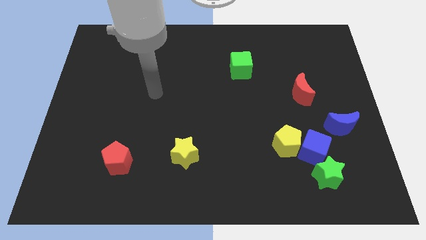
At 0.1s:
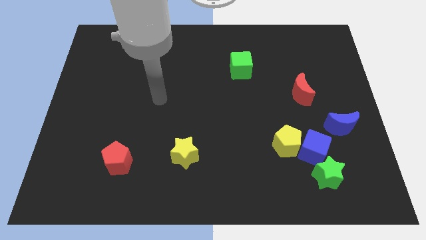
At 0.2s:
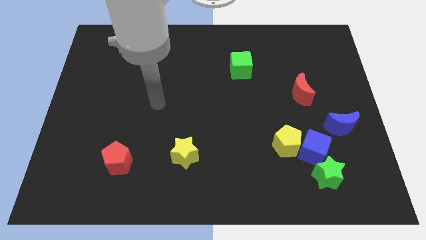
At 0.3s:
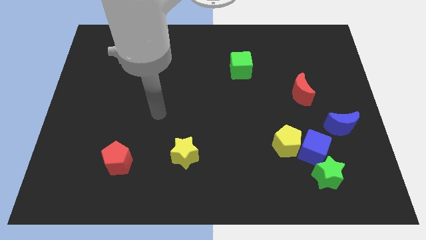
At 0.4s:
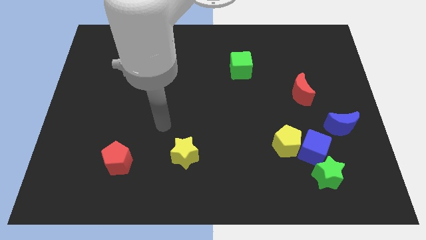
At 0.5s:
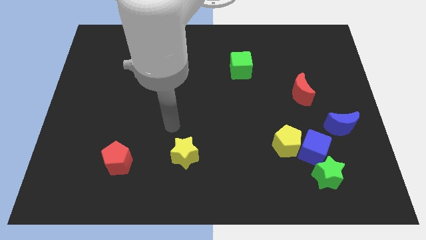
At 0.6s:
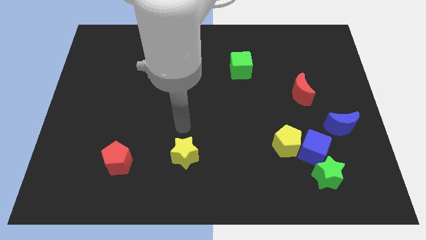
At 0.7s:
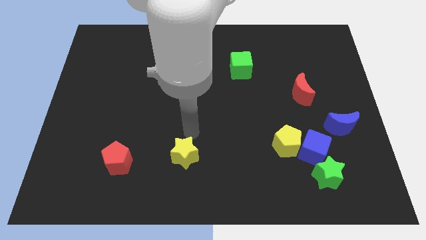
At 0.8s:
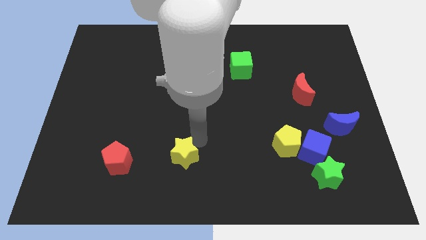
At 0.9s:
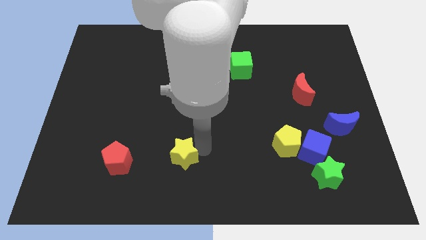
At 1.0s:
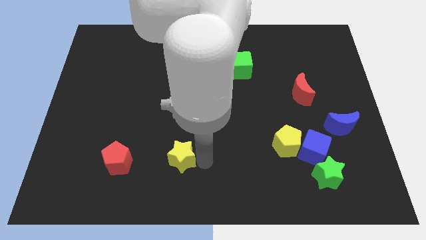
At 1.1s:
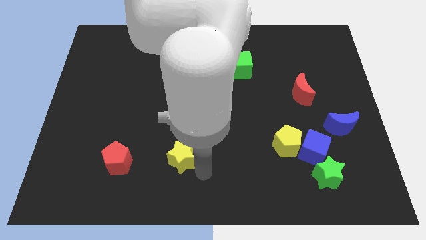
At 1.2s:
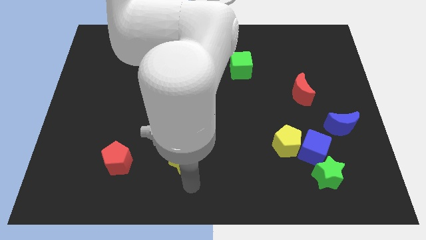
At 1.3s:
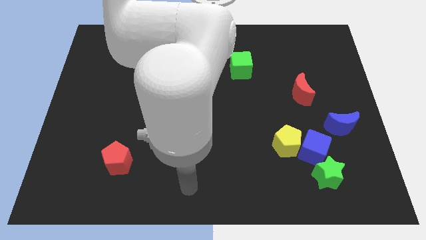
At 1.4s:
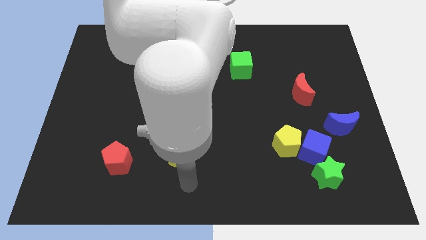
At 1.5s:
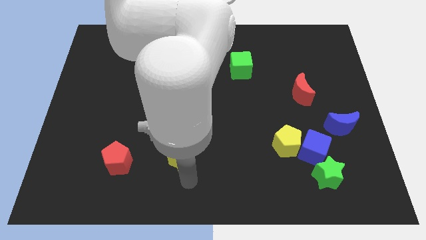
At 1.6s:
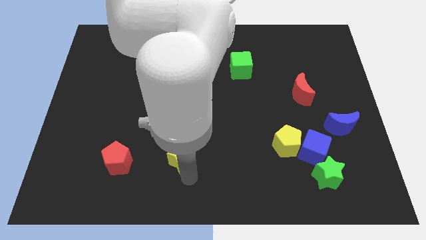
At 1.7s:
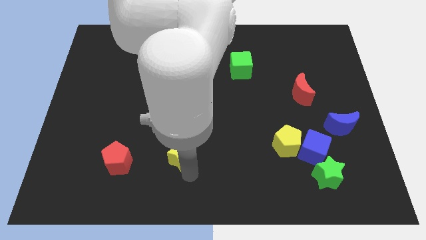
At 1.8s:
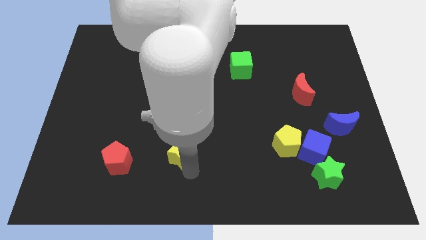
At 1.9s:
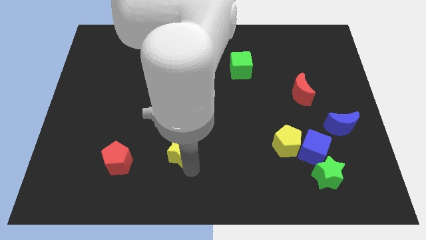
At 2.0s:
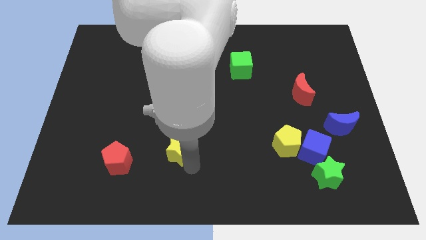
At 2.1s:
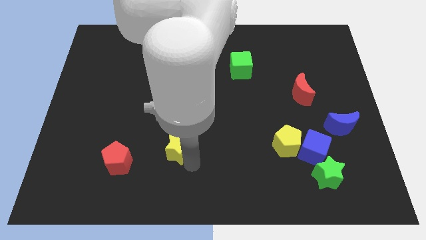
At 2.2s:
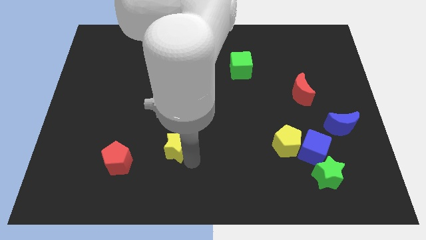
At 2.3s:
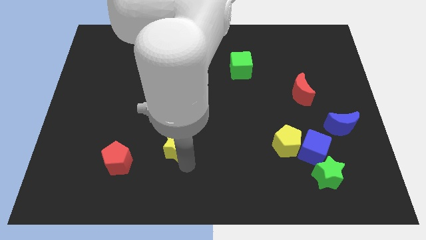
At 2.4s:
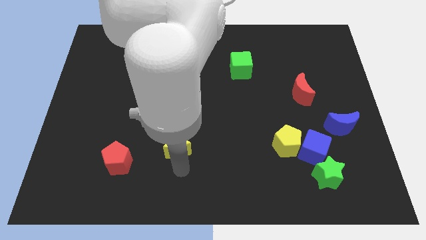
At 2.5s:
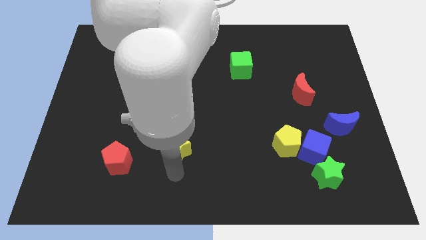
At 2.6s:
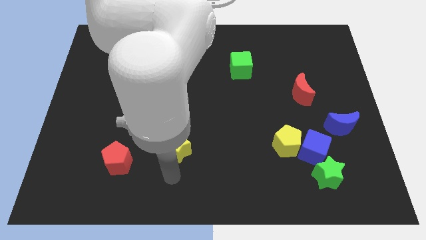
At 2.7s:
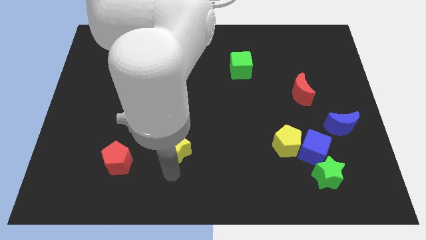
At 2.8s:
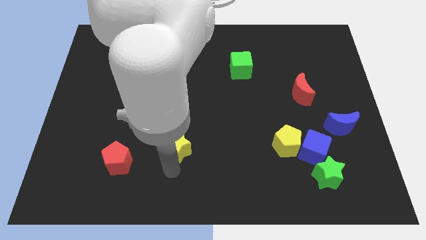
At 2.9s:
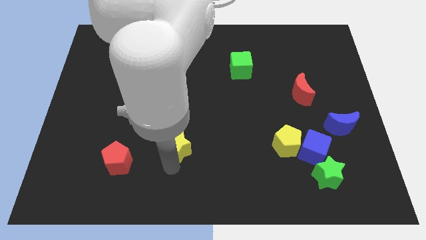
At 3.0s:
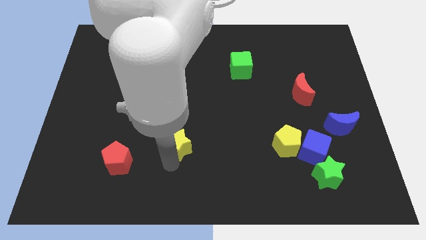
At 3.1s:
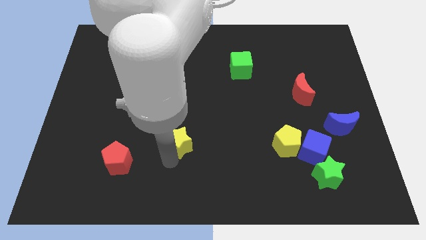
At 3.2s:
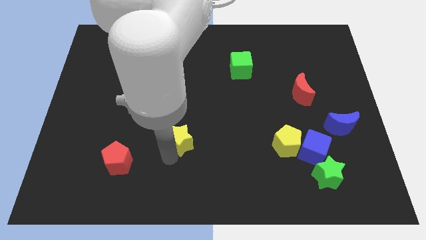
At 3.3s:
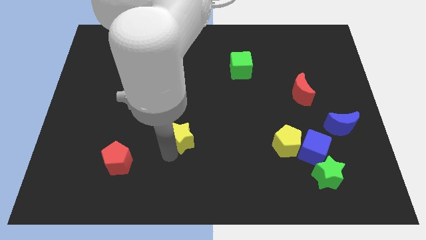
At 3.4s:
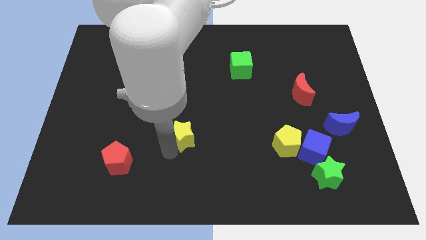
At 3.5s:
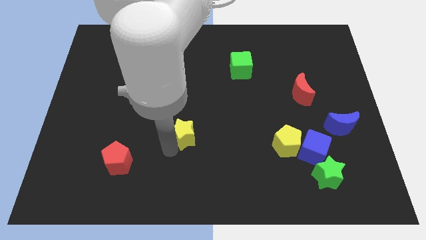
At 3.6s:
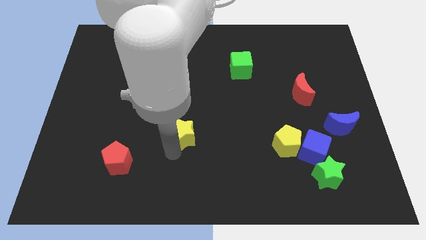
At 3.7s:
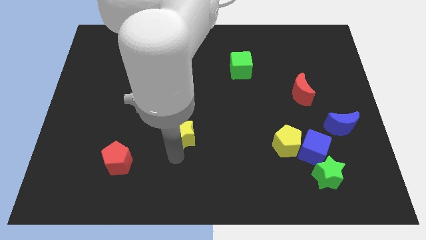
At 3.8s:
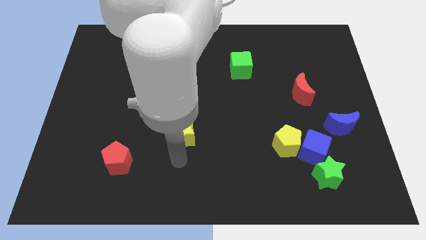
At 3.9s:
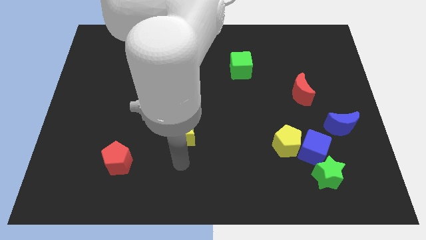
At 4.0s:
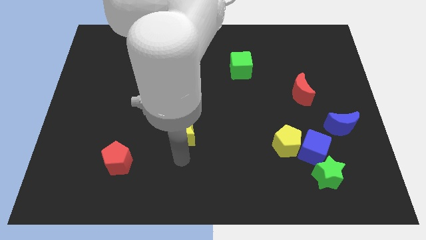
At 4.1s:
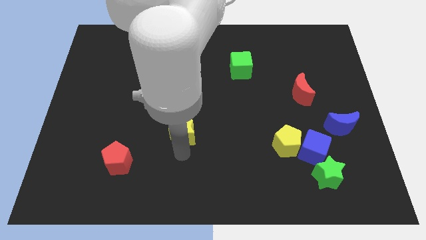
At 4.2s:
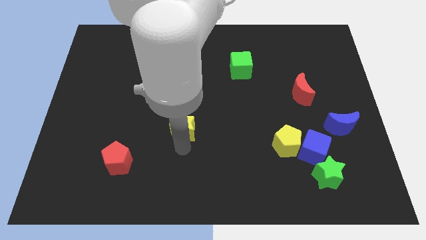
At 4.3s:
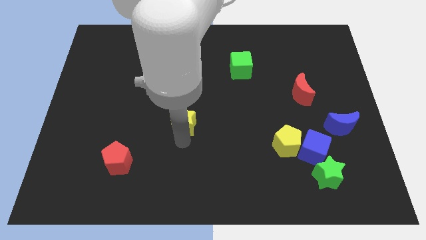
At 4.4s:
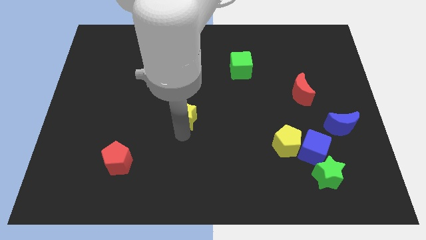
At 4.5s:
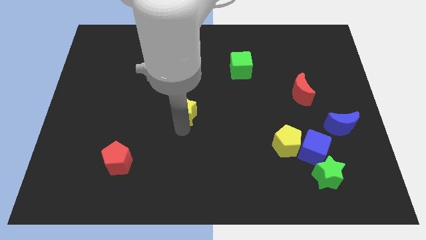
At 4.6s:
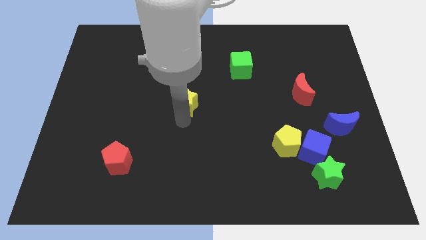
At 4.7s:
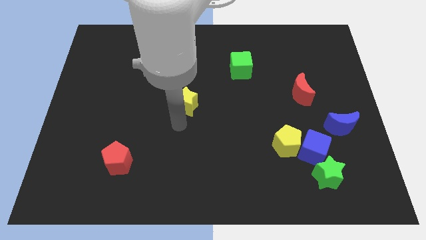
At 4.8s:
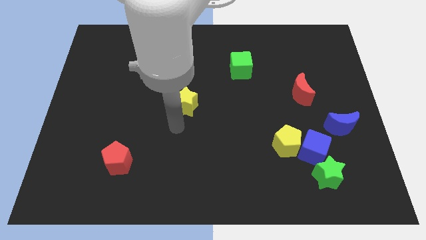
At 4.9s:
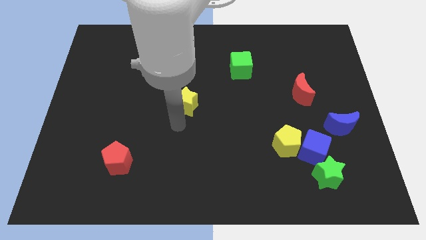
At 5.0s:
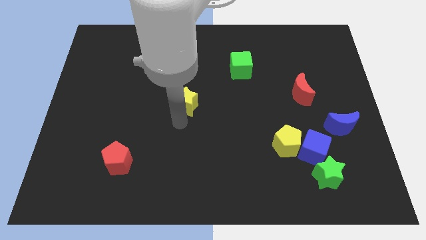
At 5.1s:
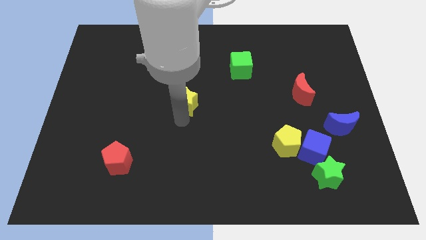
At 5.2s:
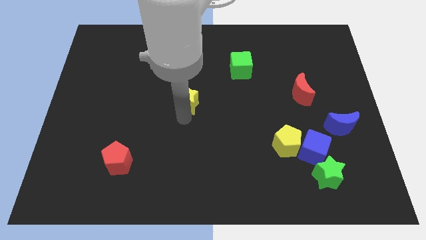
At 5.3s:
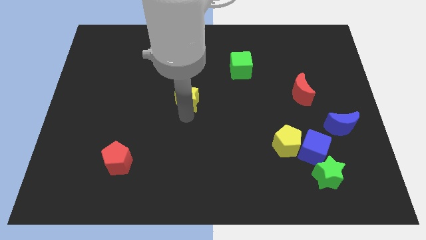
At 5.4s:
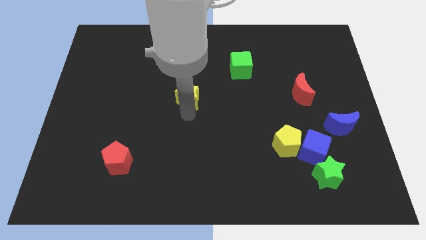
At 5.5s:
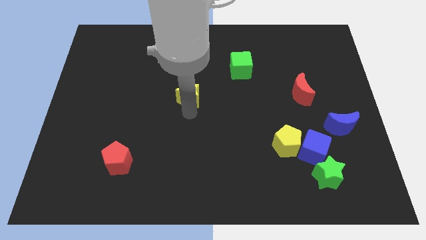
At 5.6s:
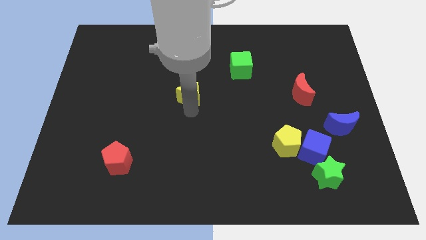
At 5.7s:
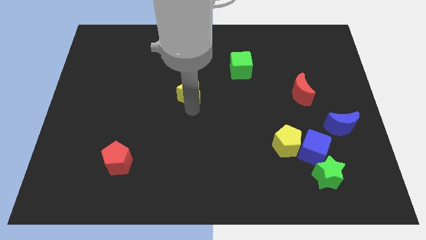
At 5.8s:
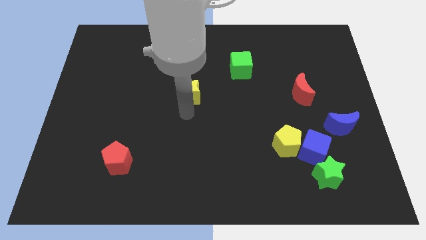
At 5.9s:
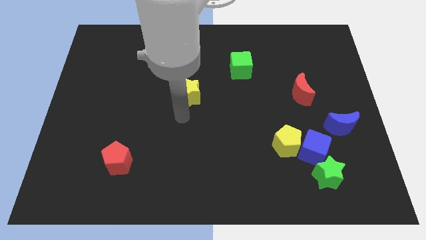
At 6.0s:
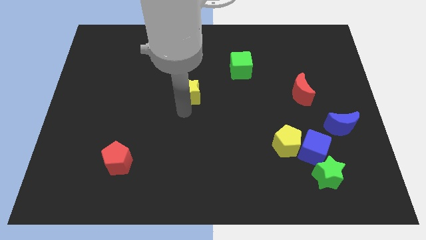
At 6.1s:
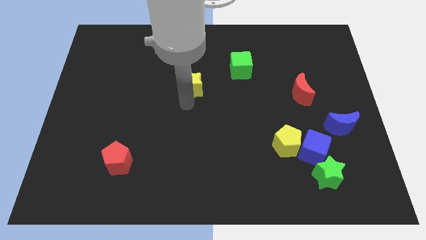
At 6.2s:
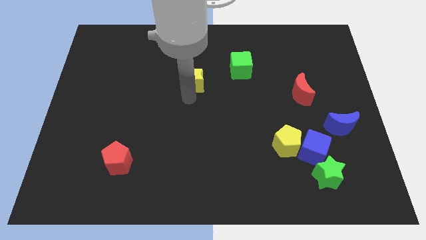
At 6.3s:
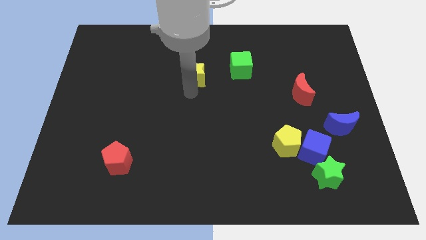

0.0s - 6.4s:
put the yellow star left of the green cube

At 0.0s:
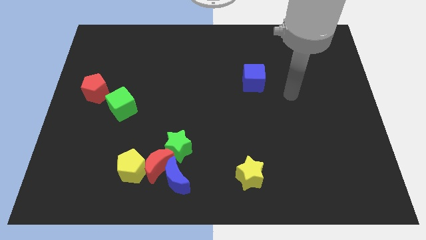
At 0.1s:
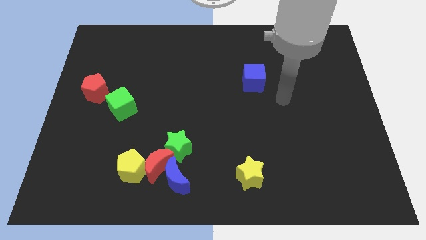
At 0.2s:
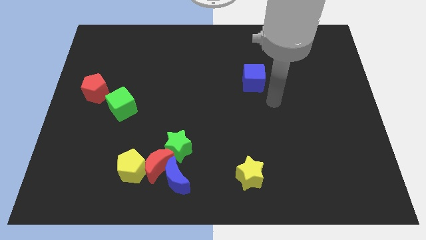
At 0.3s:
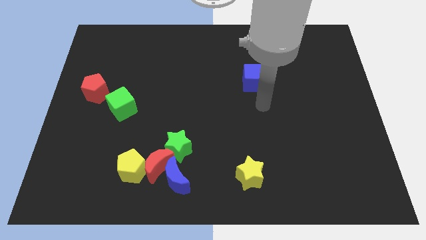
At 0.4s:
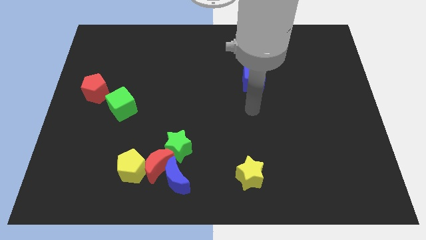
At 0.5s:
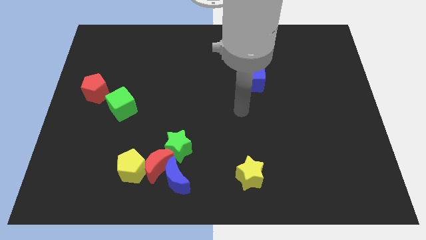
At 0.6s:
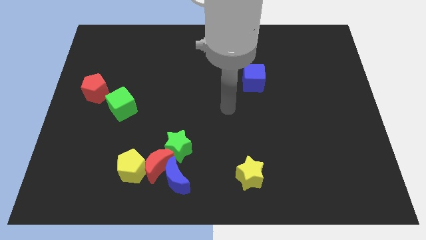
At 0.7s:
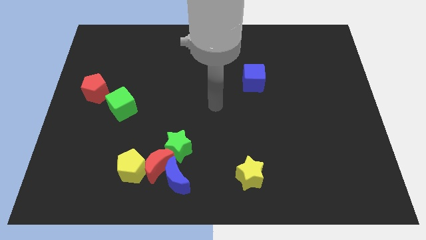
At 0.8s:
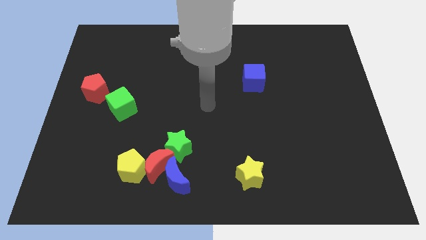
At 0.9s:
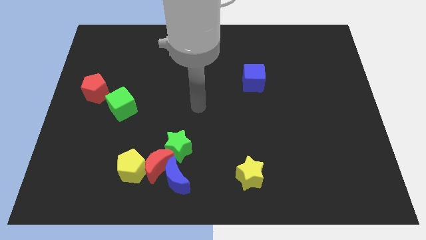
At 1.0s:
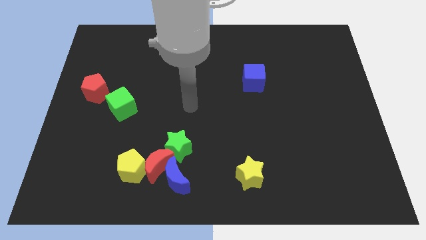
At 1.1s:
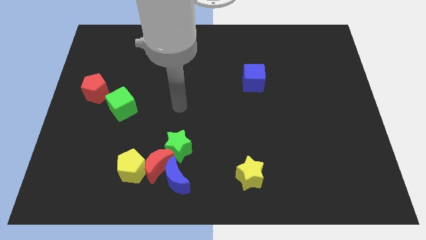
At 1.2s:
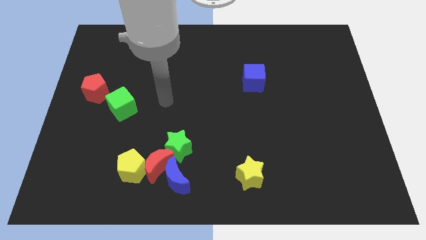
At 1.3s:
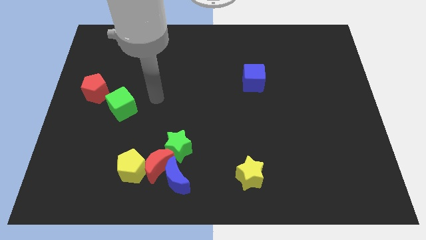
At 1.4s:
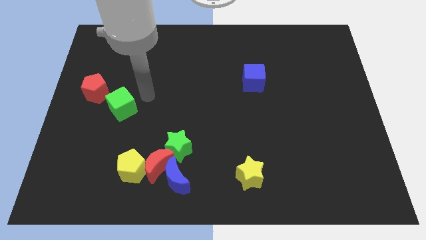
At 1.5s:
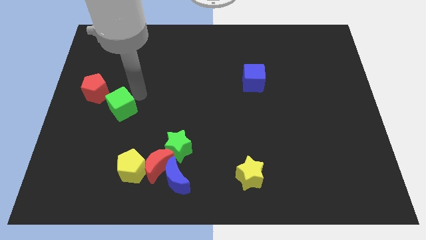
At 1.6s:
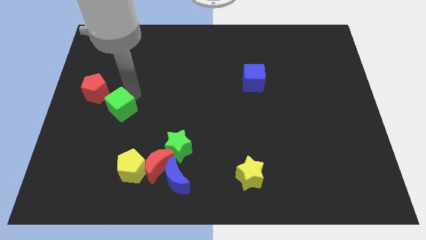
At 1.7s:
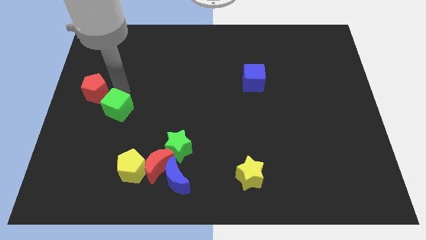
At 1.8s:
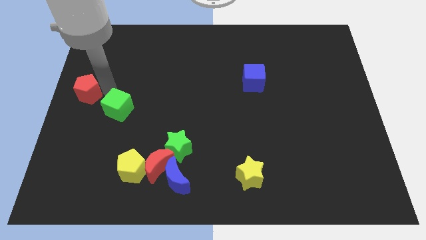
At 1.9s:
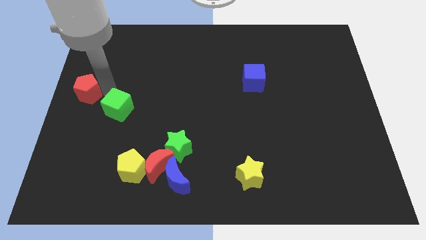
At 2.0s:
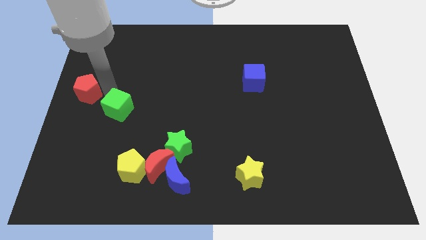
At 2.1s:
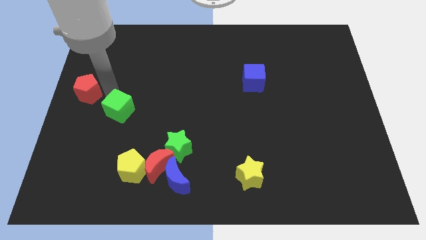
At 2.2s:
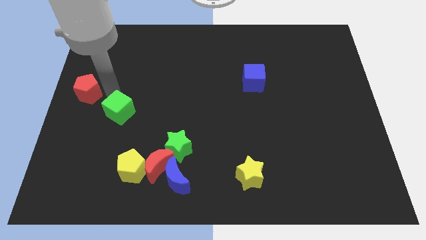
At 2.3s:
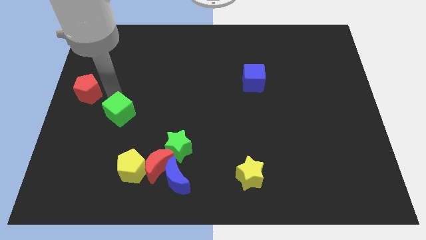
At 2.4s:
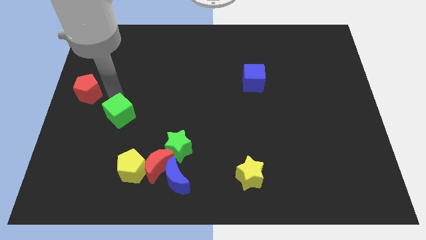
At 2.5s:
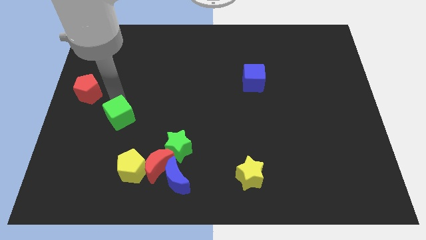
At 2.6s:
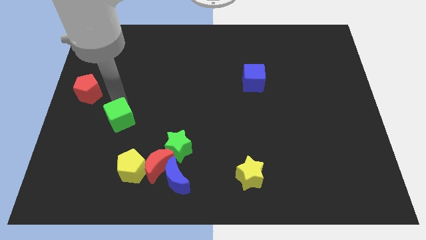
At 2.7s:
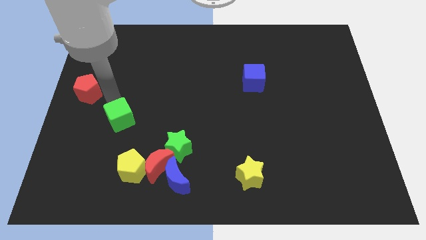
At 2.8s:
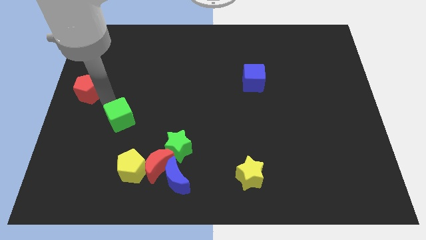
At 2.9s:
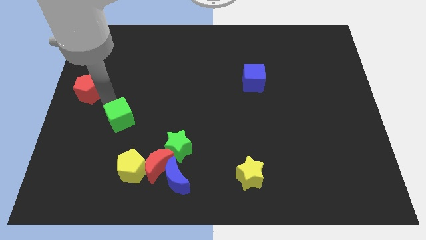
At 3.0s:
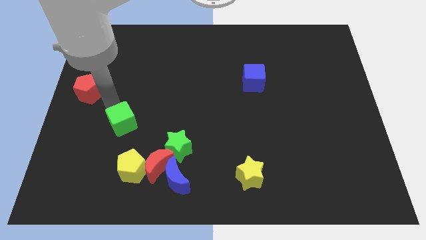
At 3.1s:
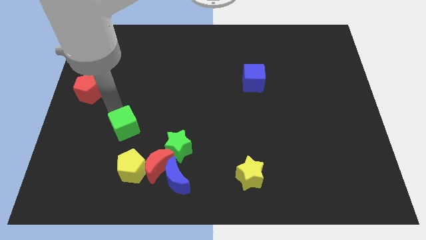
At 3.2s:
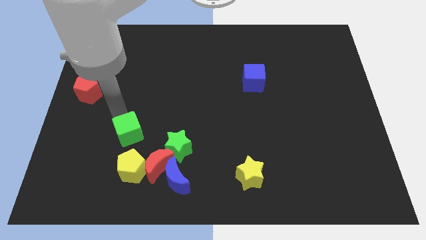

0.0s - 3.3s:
slide the green cube just left of the green star
